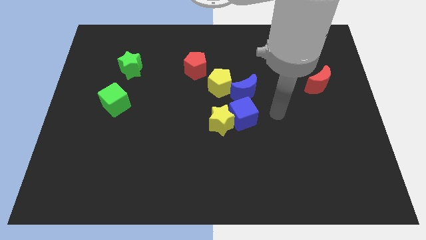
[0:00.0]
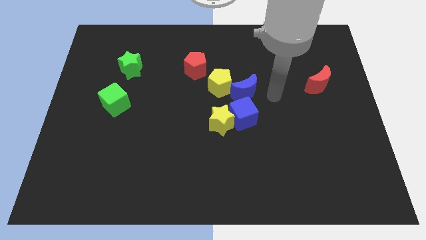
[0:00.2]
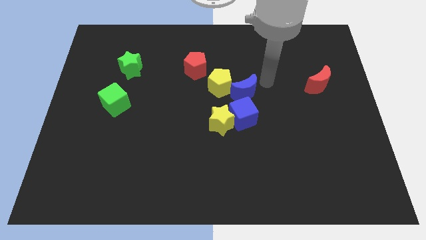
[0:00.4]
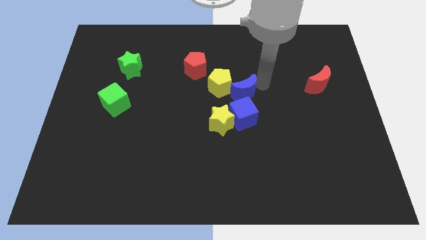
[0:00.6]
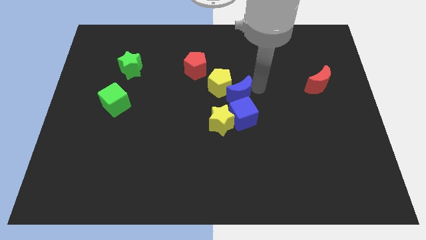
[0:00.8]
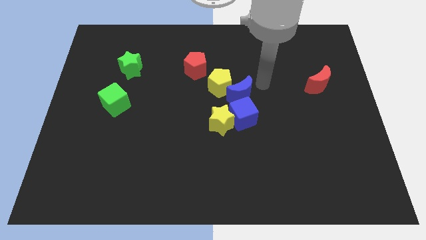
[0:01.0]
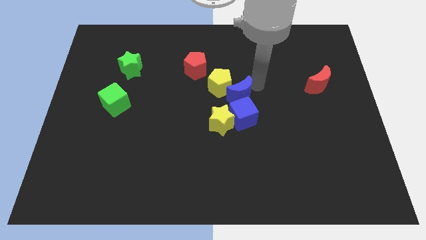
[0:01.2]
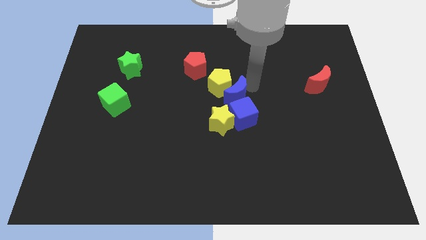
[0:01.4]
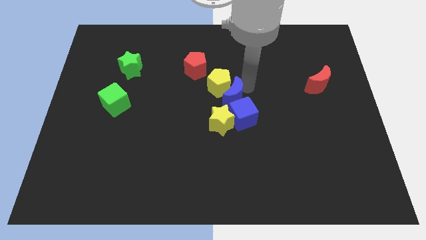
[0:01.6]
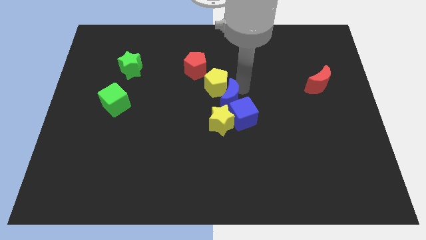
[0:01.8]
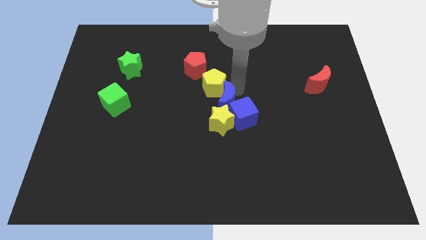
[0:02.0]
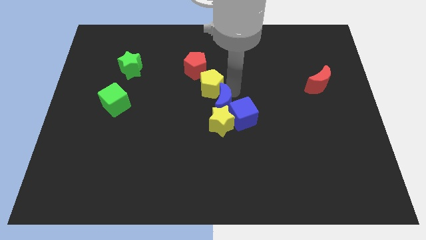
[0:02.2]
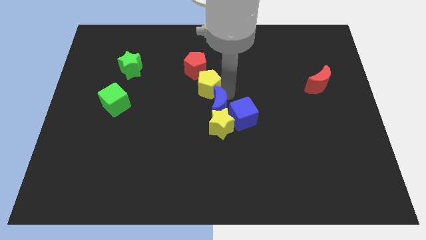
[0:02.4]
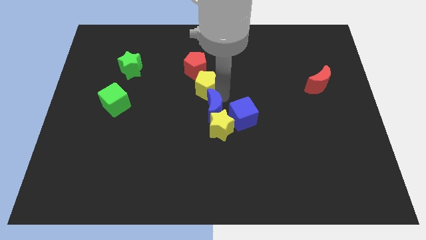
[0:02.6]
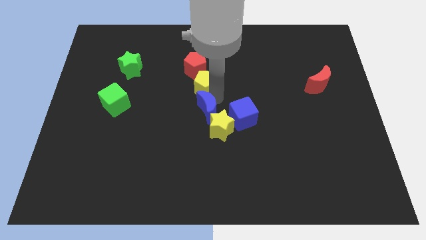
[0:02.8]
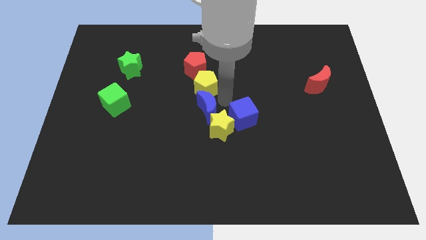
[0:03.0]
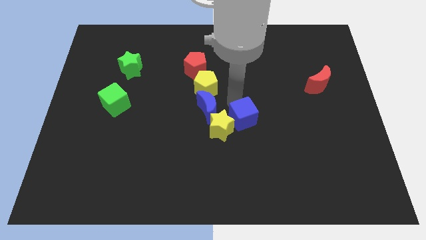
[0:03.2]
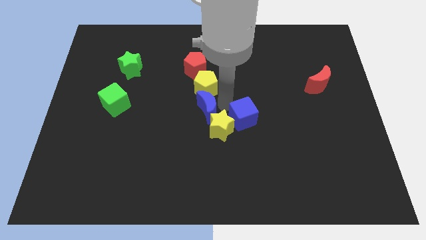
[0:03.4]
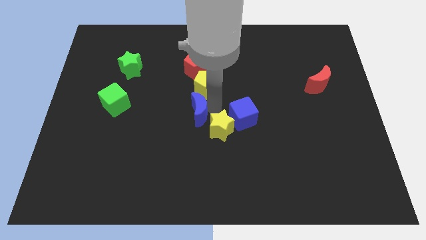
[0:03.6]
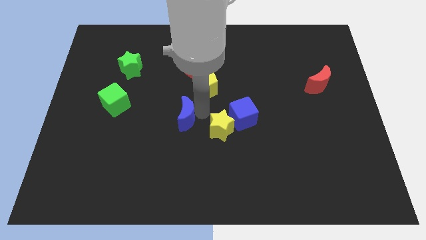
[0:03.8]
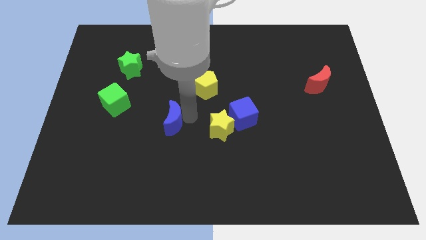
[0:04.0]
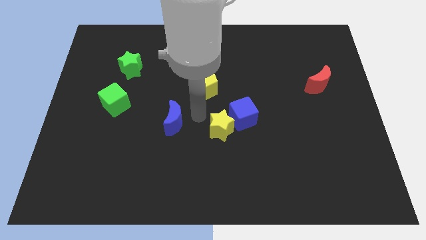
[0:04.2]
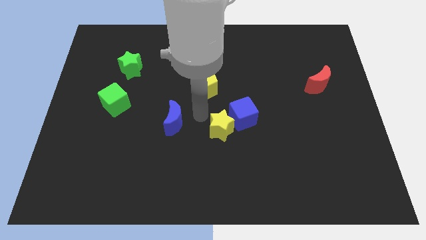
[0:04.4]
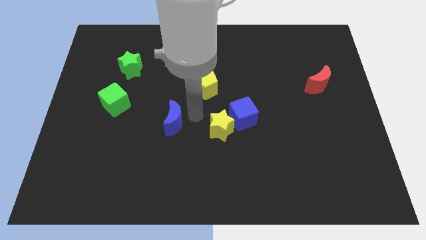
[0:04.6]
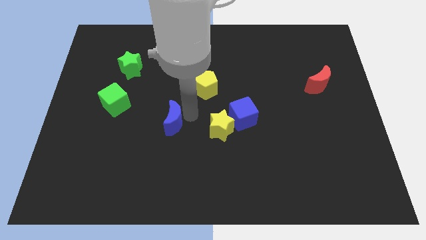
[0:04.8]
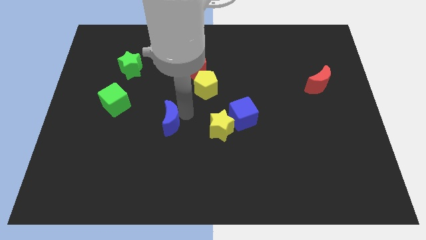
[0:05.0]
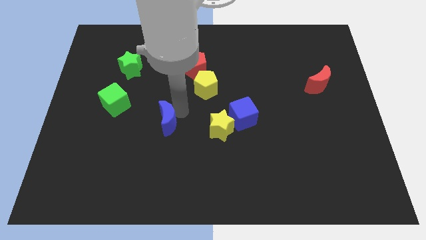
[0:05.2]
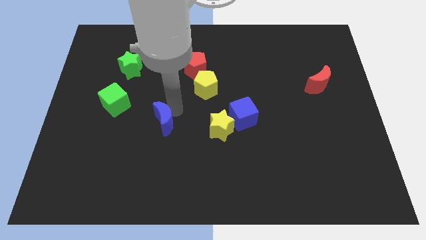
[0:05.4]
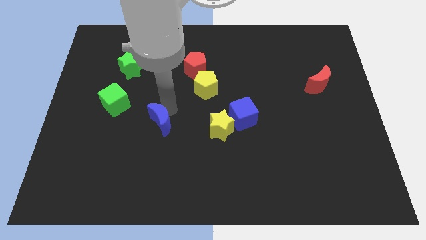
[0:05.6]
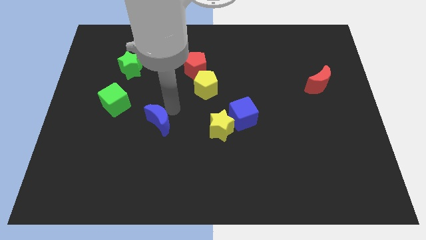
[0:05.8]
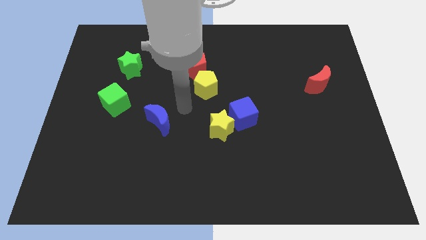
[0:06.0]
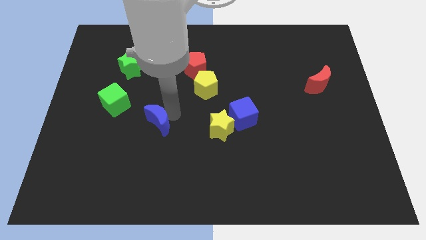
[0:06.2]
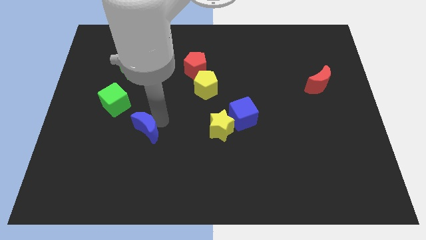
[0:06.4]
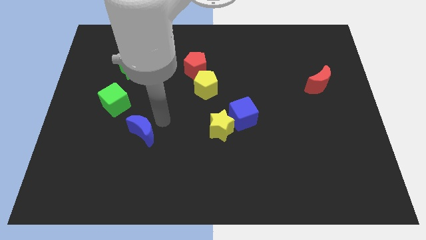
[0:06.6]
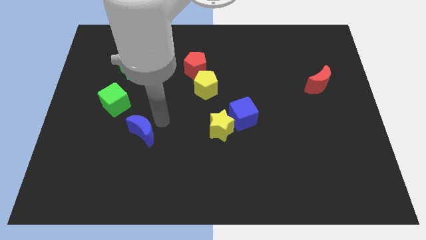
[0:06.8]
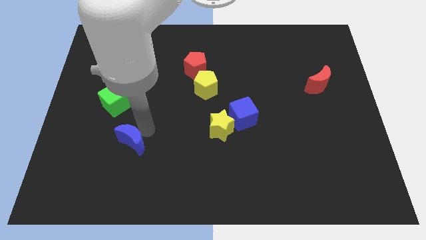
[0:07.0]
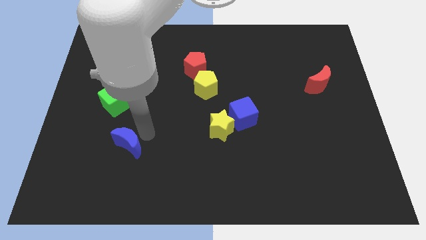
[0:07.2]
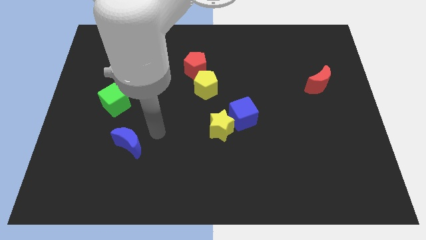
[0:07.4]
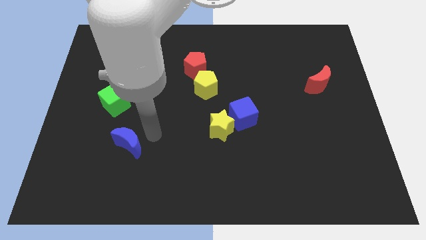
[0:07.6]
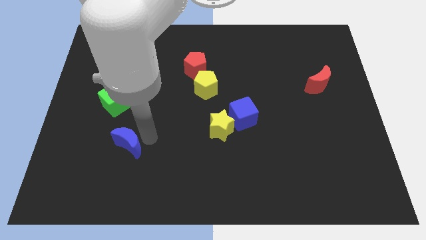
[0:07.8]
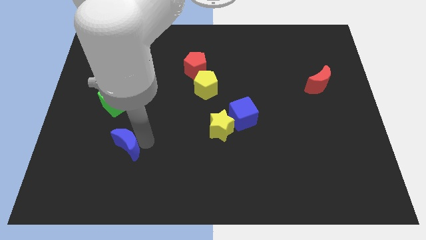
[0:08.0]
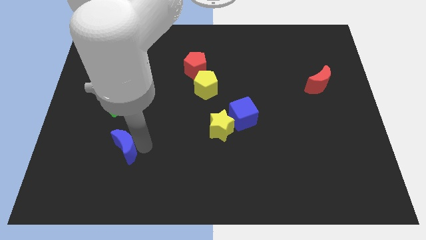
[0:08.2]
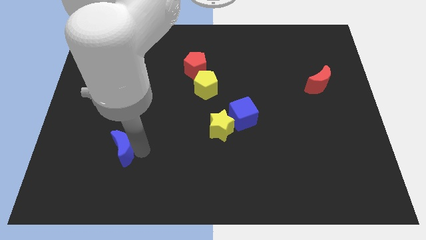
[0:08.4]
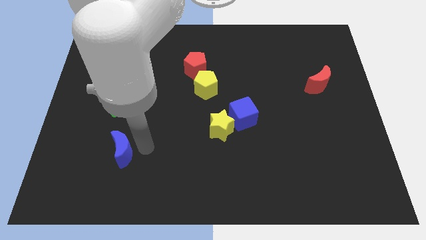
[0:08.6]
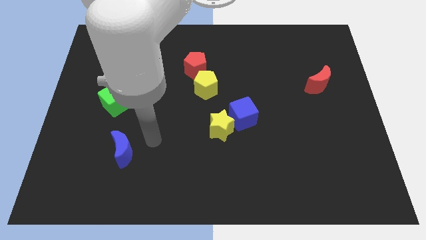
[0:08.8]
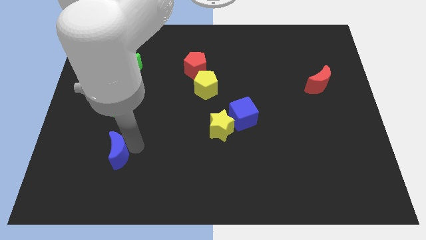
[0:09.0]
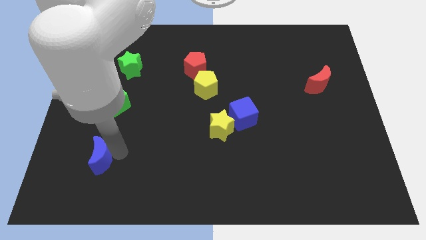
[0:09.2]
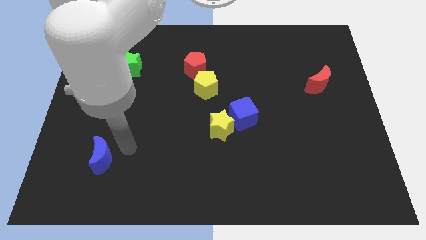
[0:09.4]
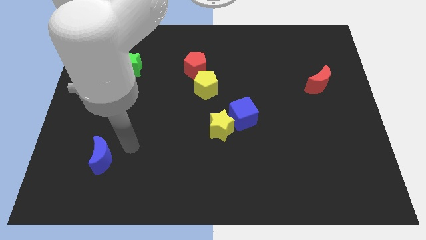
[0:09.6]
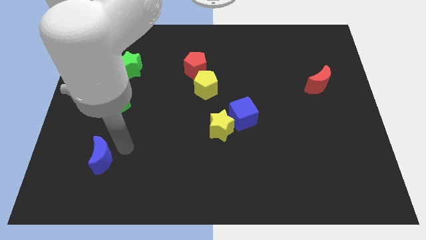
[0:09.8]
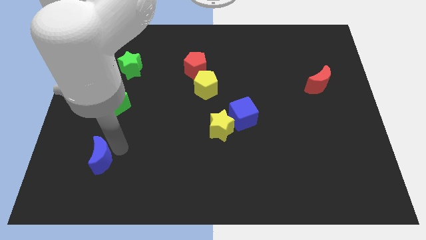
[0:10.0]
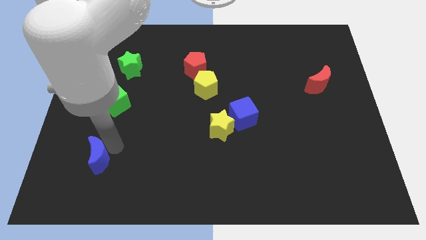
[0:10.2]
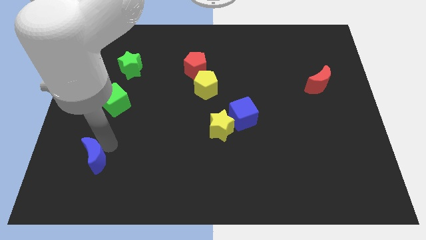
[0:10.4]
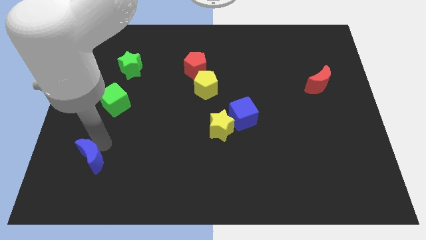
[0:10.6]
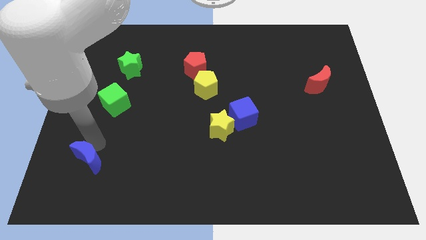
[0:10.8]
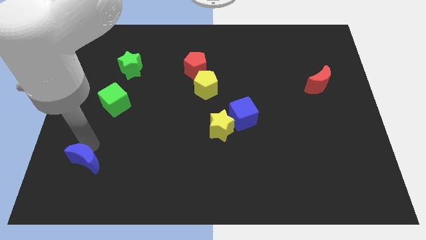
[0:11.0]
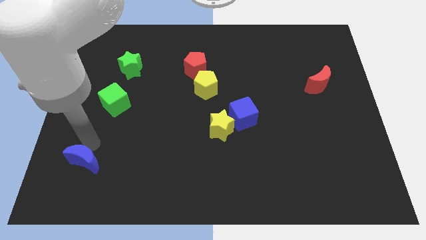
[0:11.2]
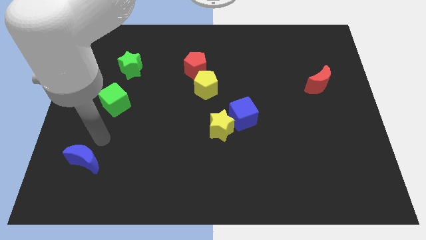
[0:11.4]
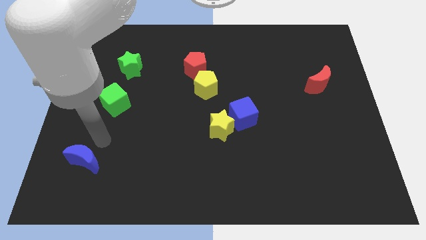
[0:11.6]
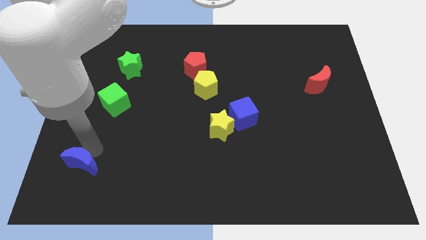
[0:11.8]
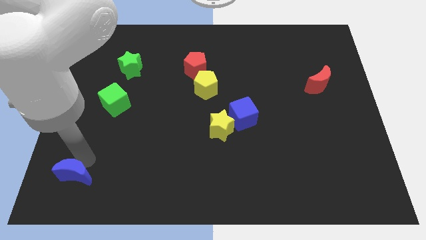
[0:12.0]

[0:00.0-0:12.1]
push the blue moon to the bottom left of the board

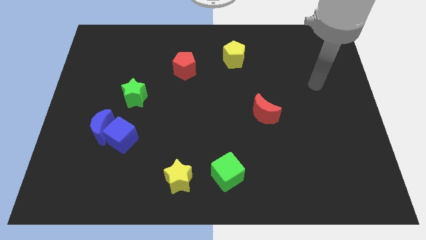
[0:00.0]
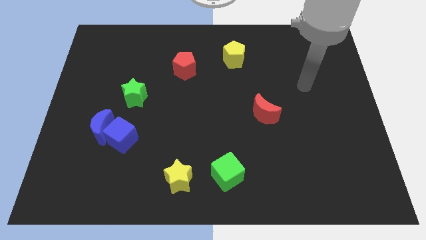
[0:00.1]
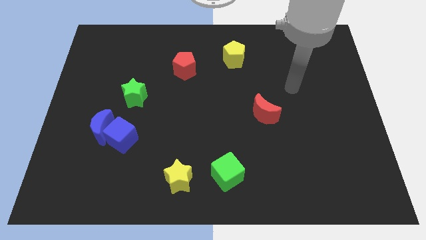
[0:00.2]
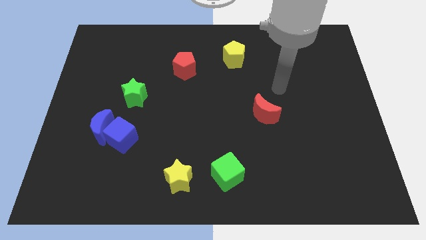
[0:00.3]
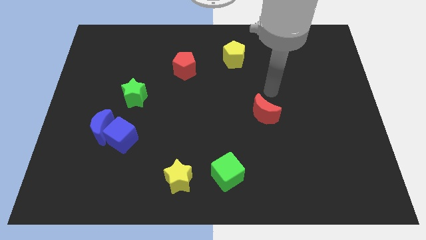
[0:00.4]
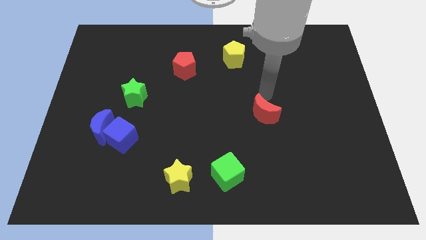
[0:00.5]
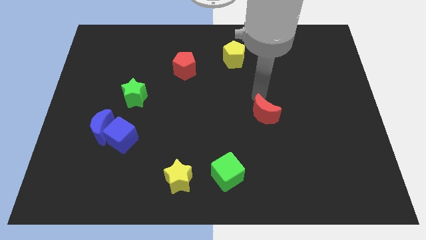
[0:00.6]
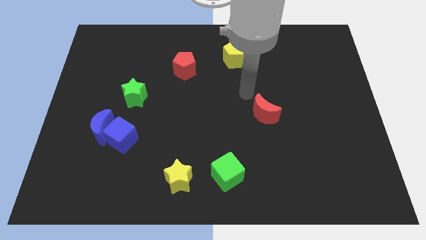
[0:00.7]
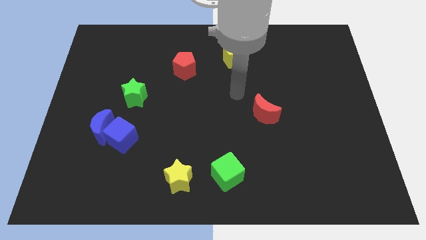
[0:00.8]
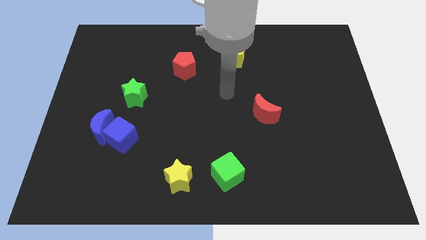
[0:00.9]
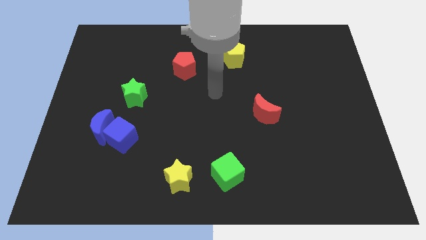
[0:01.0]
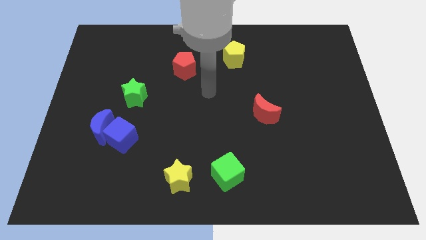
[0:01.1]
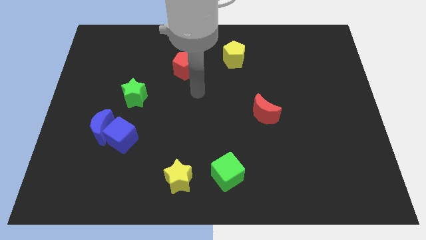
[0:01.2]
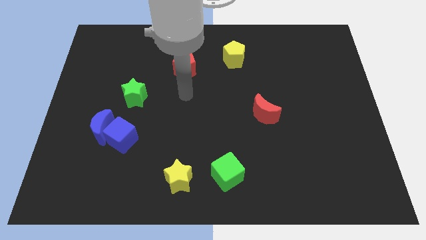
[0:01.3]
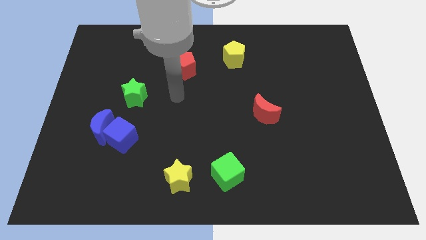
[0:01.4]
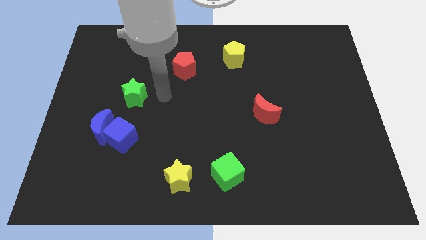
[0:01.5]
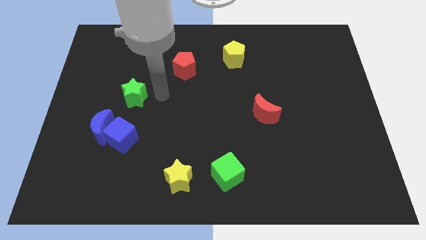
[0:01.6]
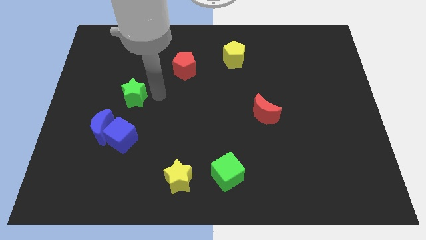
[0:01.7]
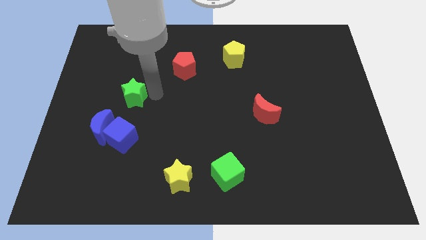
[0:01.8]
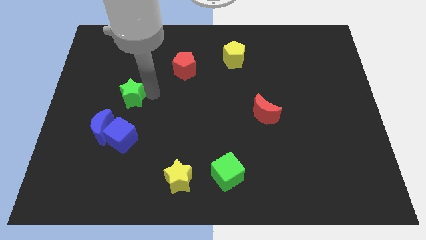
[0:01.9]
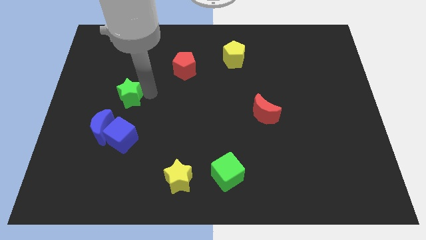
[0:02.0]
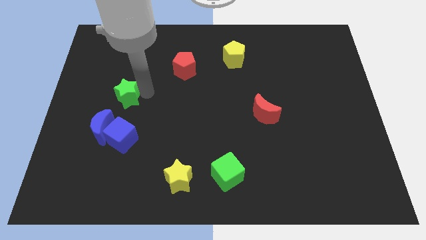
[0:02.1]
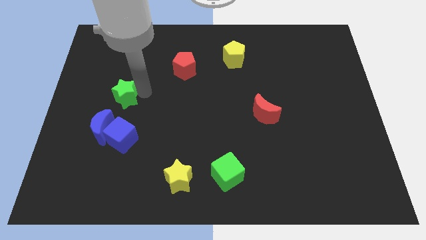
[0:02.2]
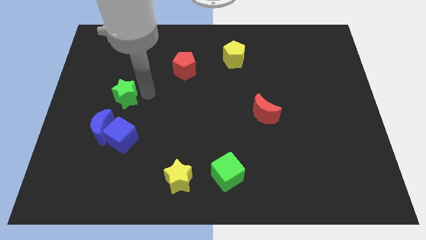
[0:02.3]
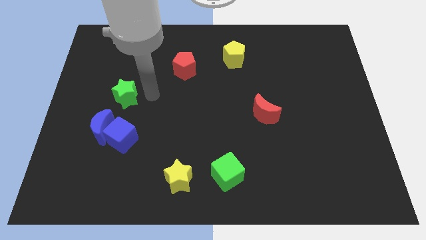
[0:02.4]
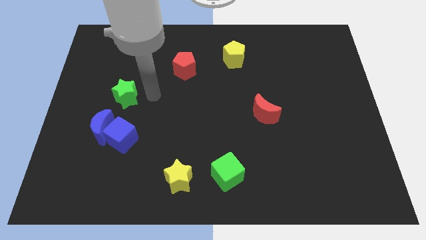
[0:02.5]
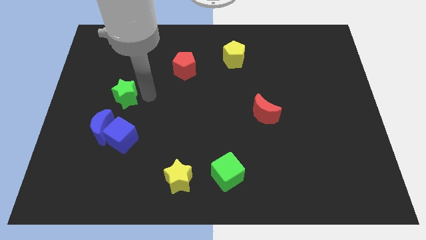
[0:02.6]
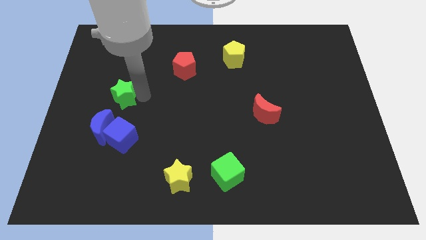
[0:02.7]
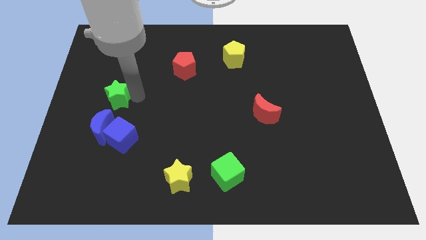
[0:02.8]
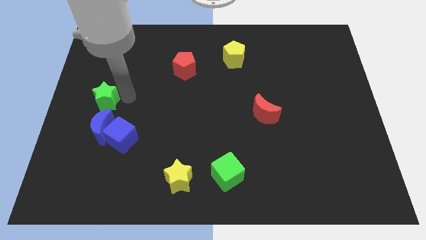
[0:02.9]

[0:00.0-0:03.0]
slide the green star to the left side of the board
